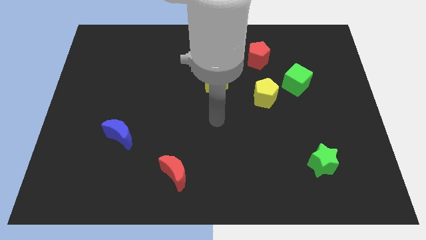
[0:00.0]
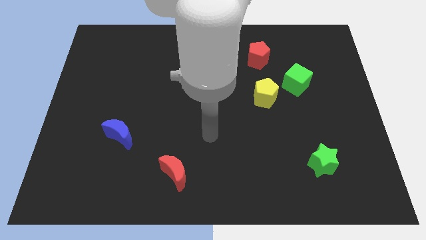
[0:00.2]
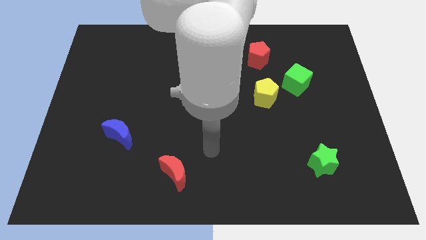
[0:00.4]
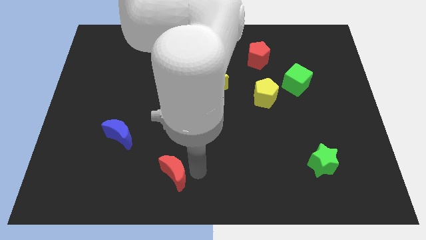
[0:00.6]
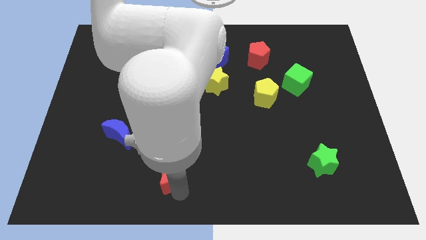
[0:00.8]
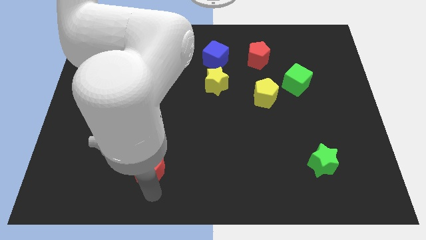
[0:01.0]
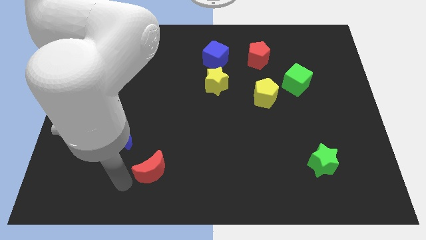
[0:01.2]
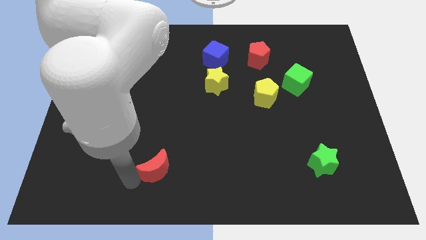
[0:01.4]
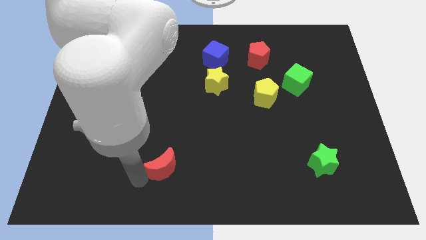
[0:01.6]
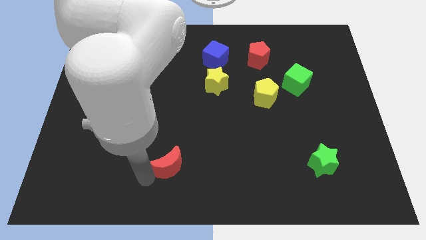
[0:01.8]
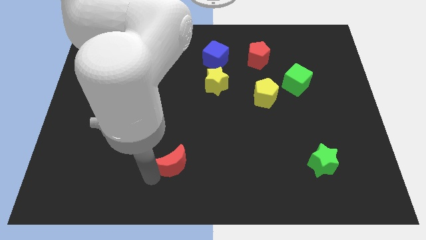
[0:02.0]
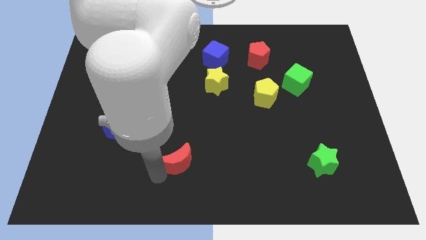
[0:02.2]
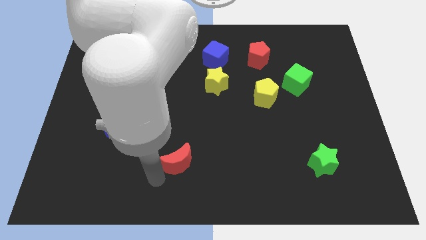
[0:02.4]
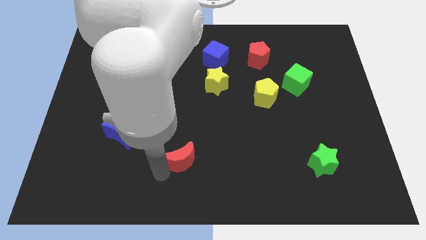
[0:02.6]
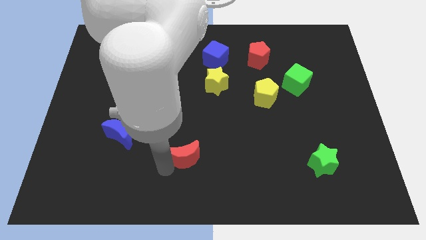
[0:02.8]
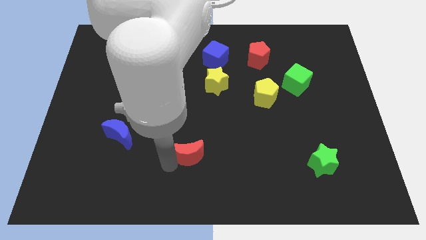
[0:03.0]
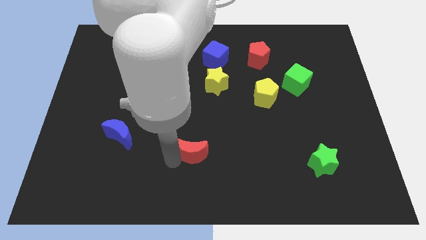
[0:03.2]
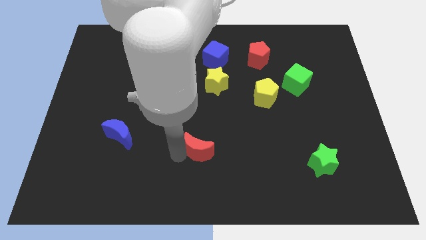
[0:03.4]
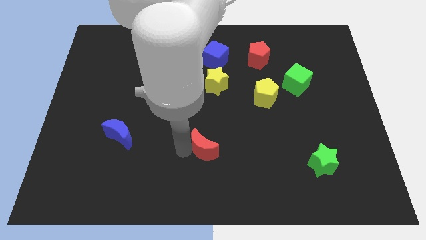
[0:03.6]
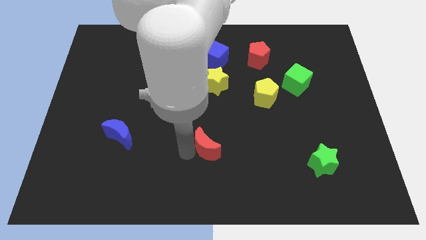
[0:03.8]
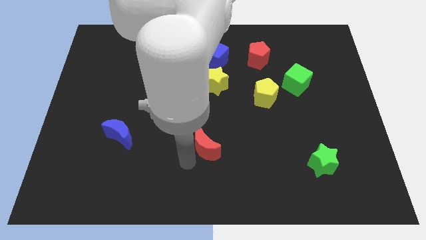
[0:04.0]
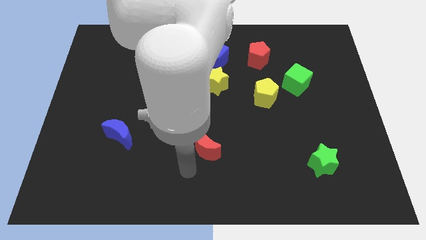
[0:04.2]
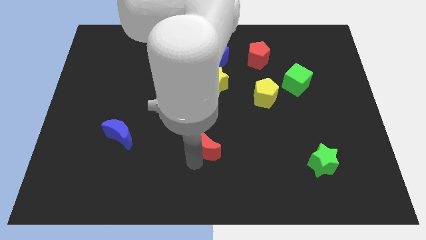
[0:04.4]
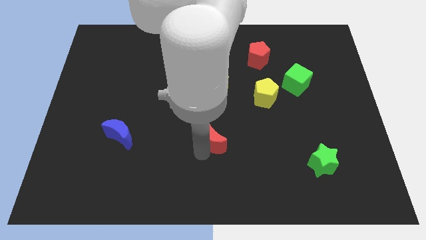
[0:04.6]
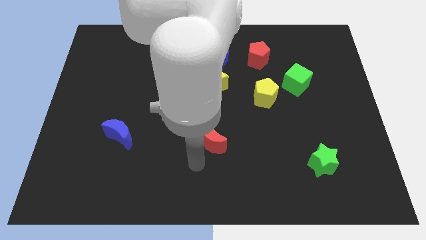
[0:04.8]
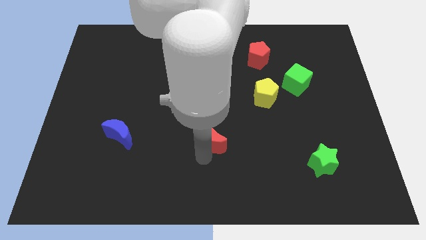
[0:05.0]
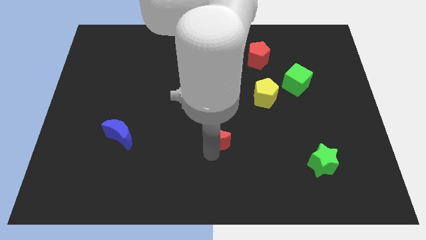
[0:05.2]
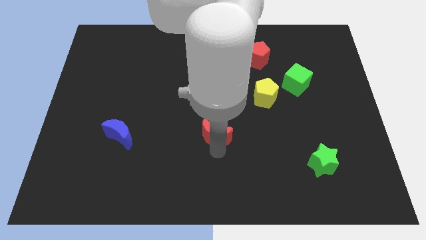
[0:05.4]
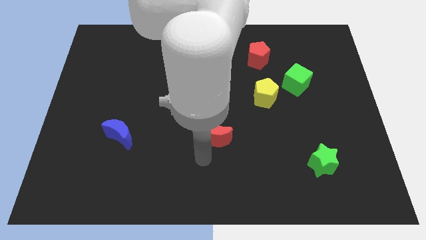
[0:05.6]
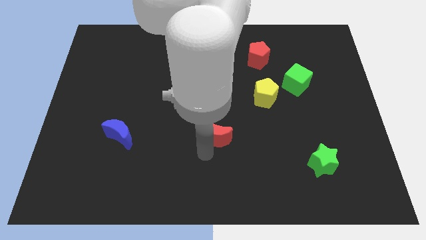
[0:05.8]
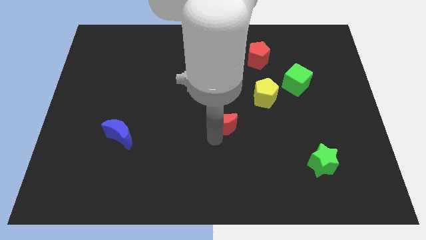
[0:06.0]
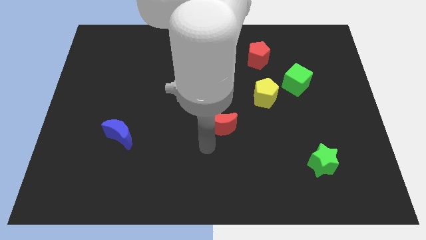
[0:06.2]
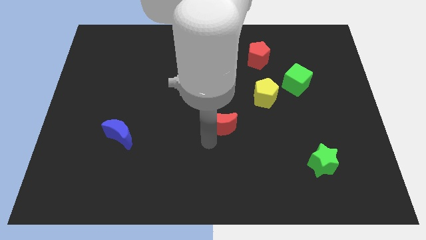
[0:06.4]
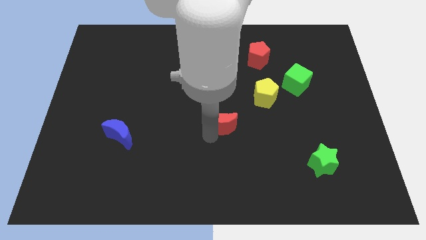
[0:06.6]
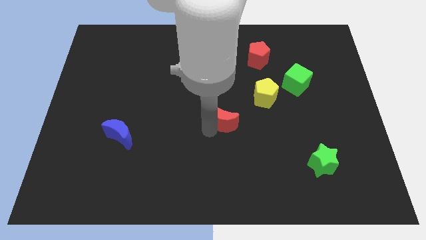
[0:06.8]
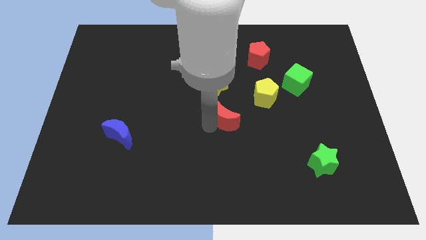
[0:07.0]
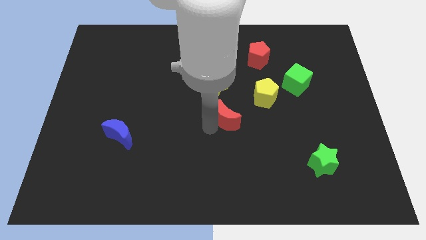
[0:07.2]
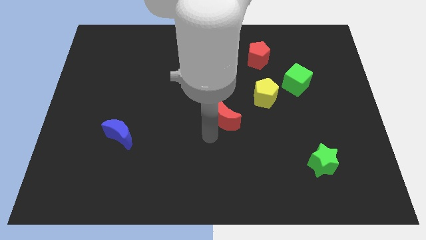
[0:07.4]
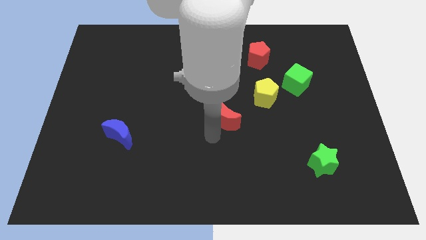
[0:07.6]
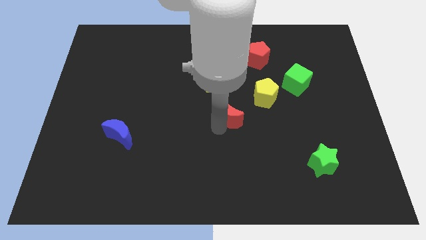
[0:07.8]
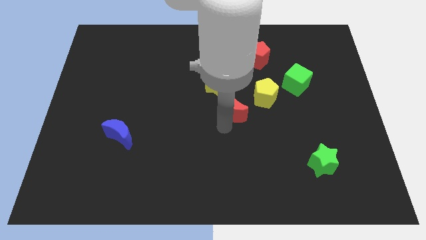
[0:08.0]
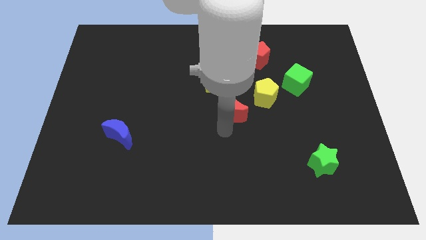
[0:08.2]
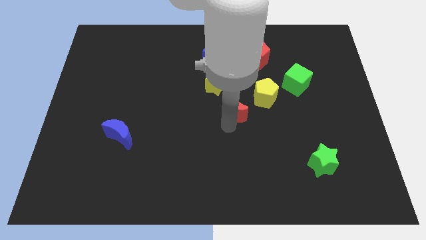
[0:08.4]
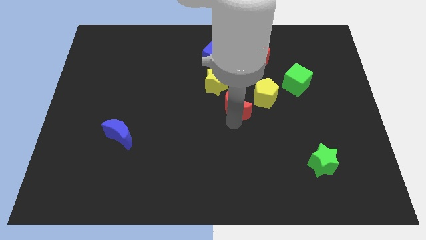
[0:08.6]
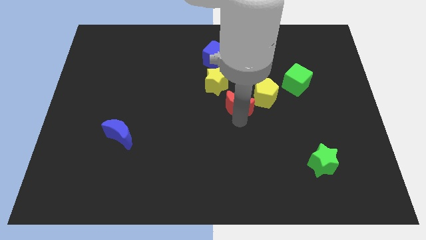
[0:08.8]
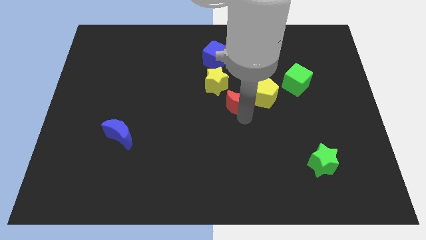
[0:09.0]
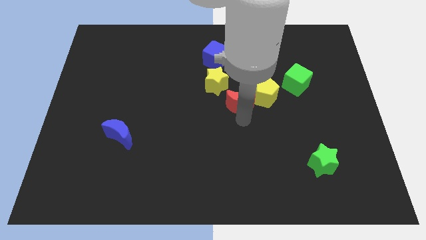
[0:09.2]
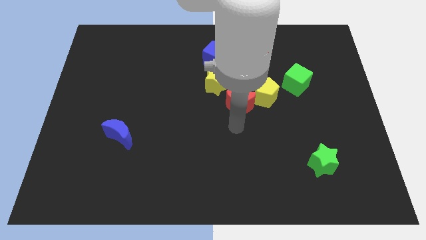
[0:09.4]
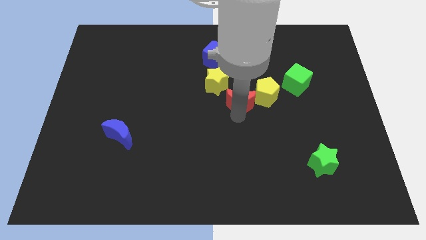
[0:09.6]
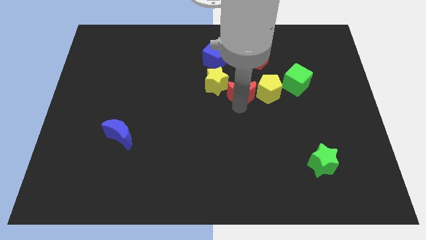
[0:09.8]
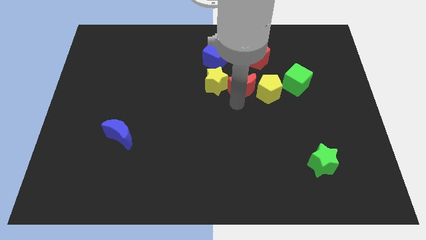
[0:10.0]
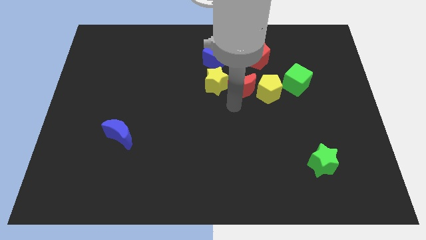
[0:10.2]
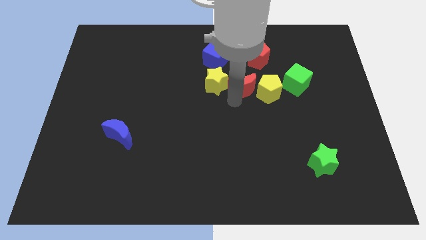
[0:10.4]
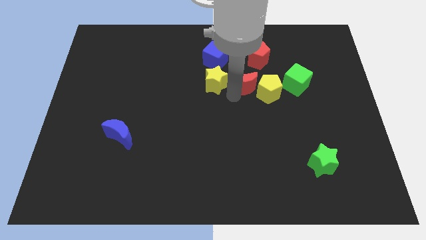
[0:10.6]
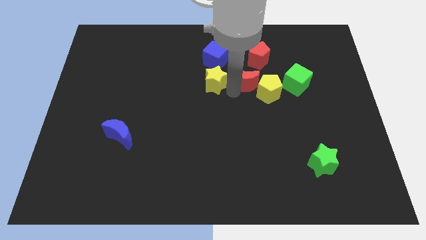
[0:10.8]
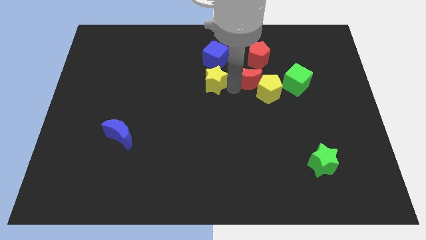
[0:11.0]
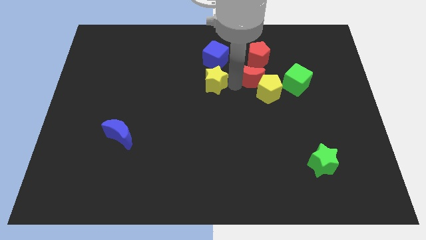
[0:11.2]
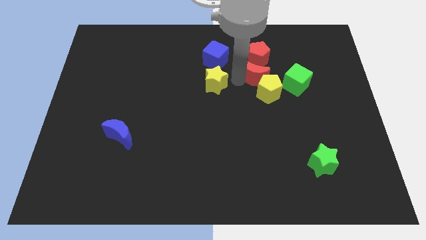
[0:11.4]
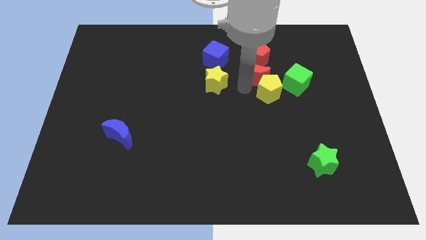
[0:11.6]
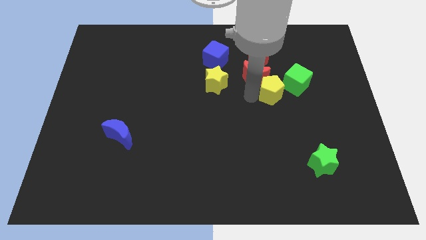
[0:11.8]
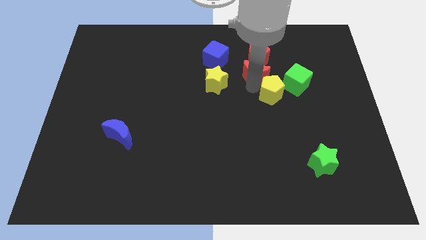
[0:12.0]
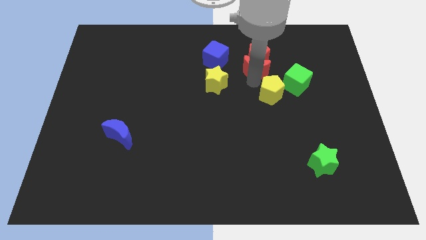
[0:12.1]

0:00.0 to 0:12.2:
put the red moon to the red pentagon

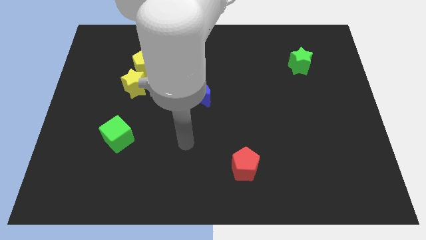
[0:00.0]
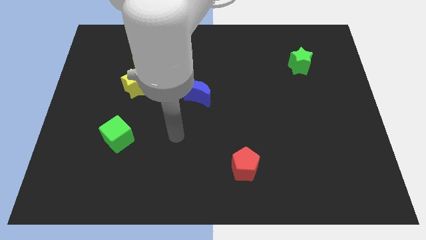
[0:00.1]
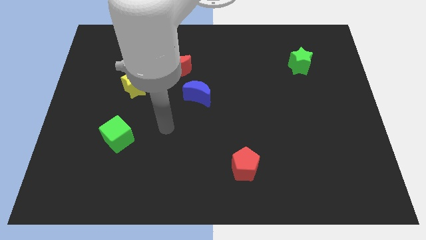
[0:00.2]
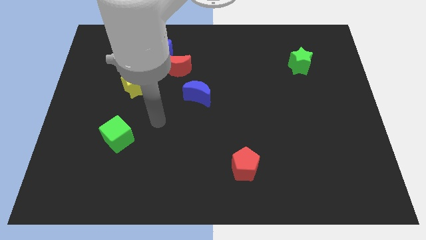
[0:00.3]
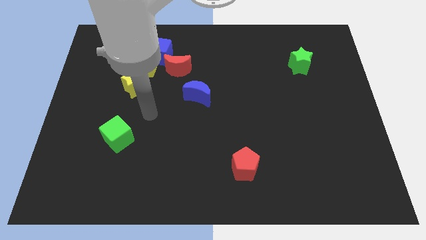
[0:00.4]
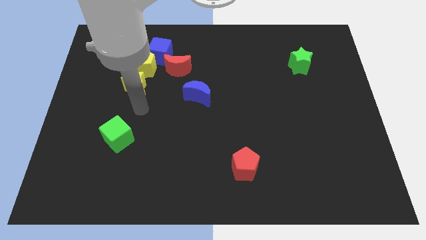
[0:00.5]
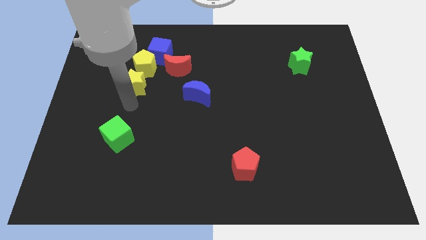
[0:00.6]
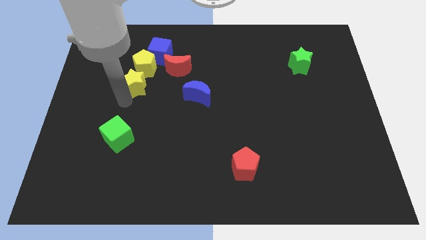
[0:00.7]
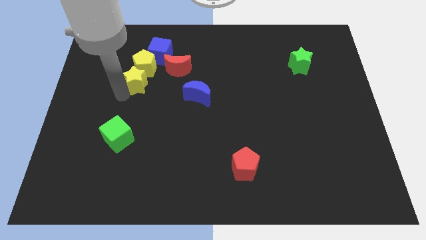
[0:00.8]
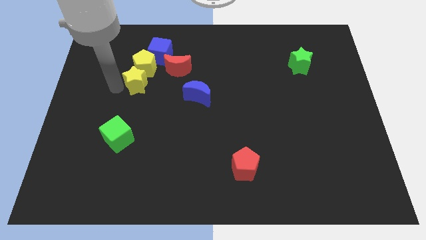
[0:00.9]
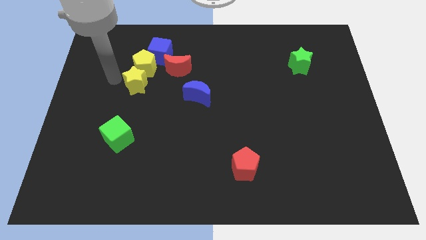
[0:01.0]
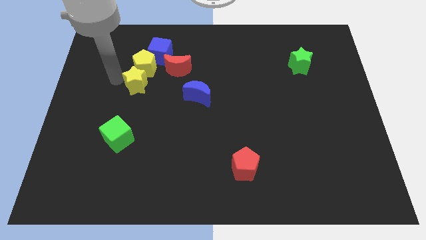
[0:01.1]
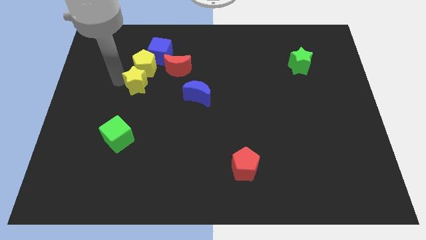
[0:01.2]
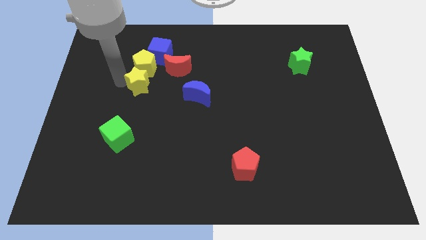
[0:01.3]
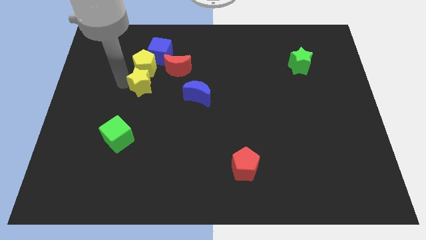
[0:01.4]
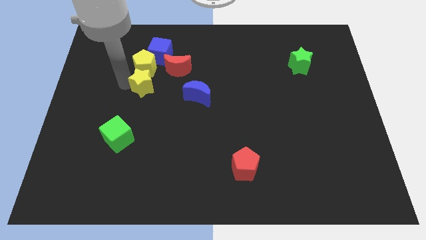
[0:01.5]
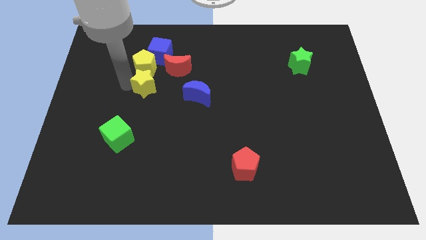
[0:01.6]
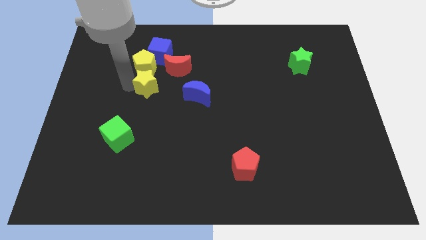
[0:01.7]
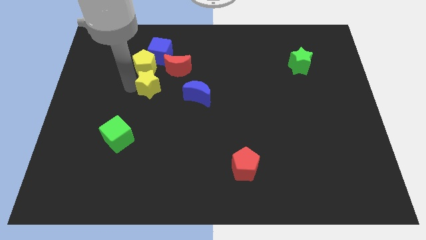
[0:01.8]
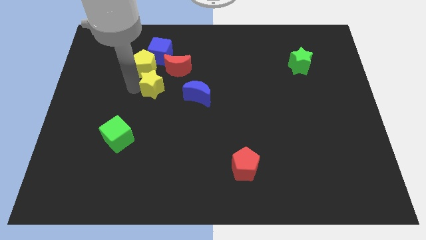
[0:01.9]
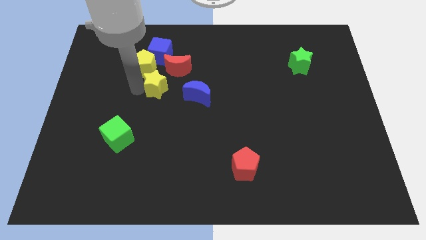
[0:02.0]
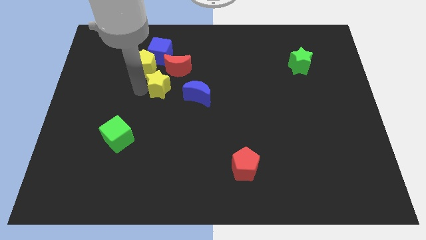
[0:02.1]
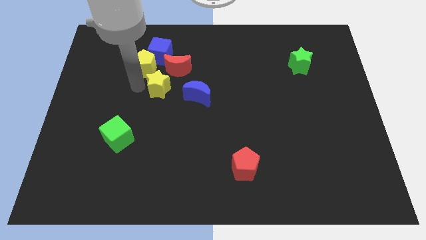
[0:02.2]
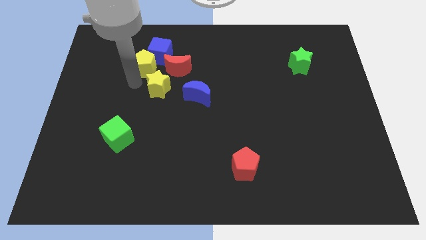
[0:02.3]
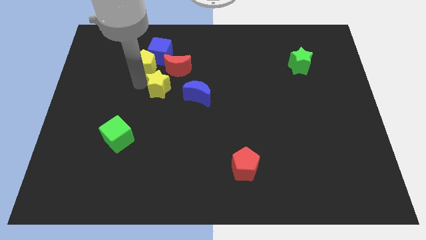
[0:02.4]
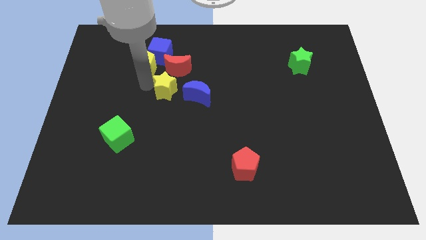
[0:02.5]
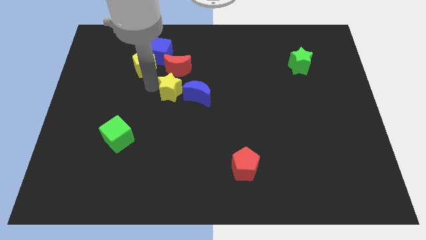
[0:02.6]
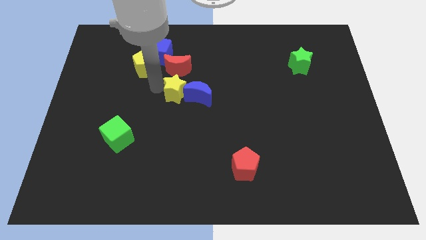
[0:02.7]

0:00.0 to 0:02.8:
put the yellow star next to the blue moon
